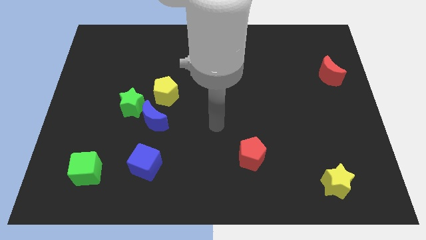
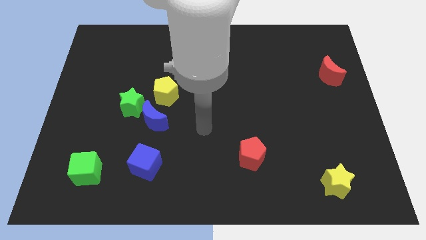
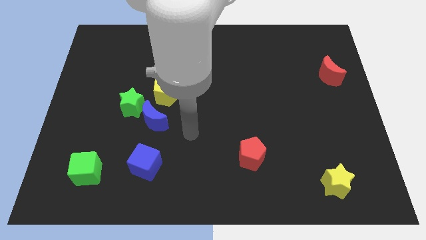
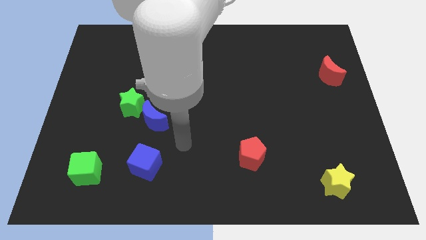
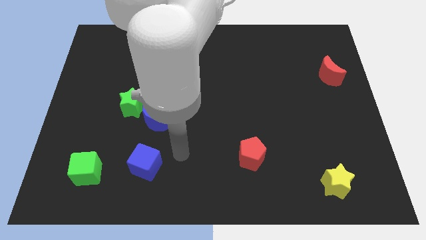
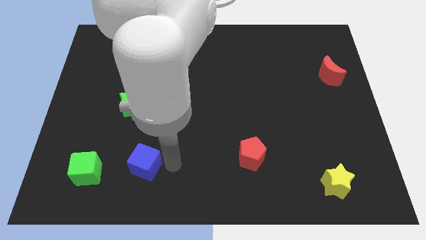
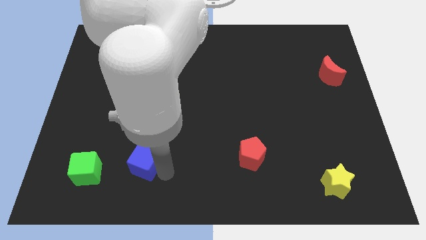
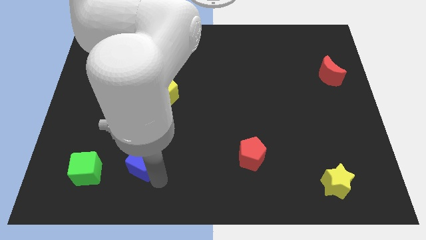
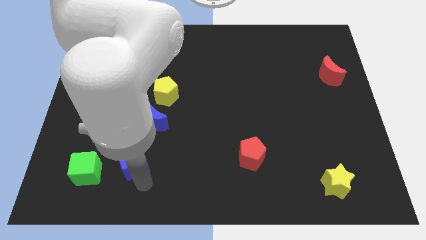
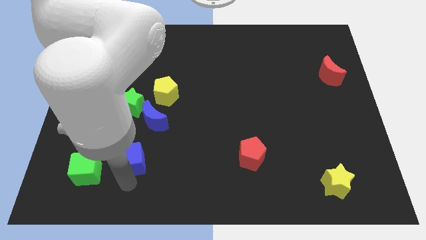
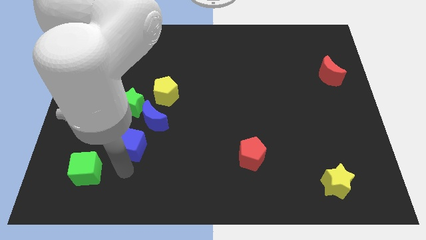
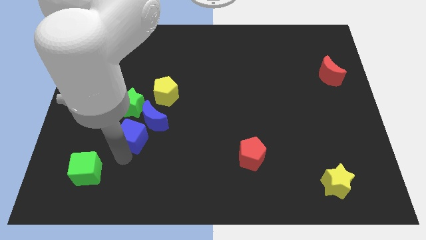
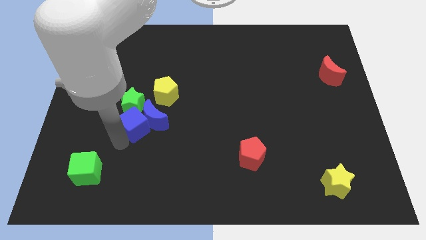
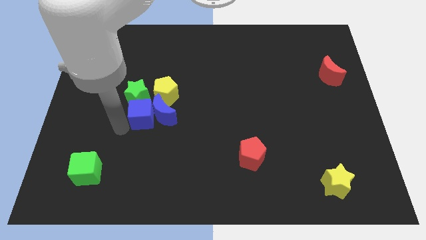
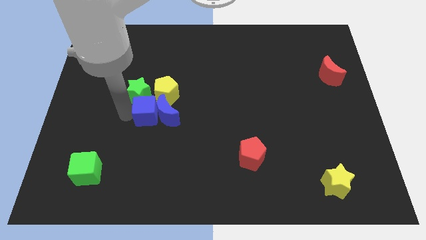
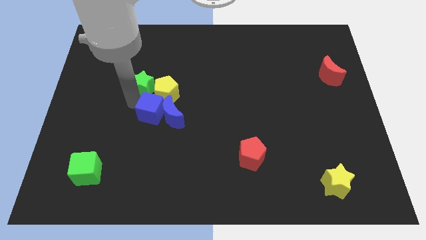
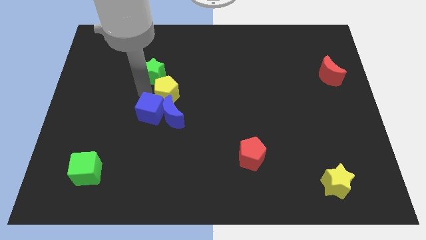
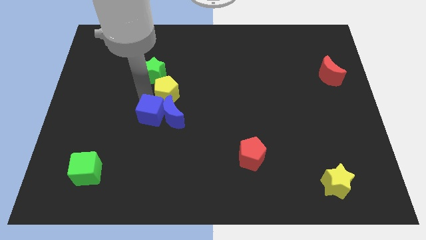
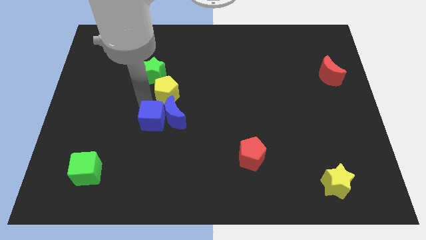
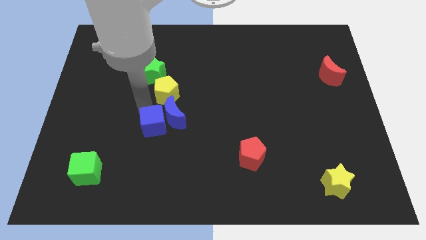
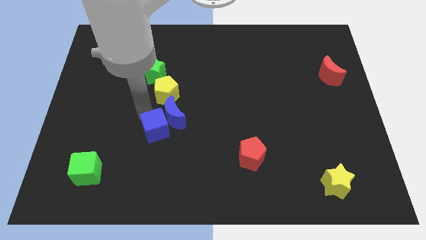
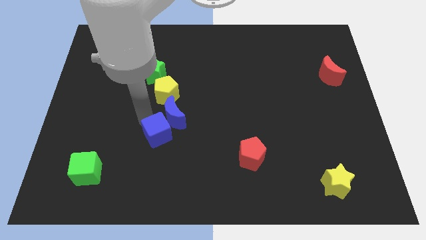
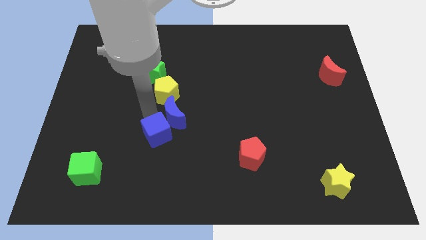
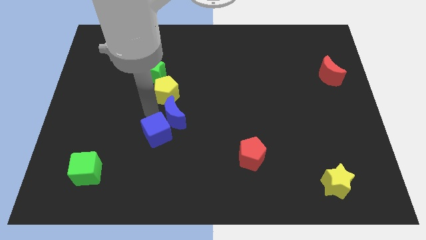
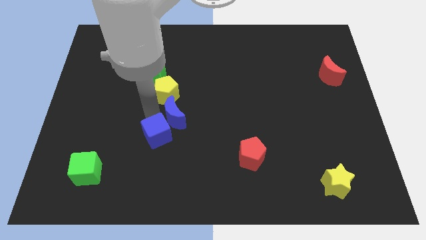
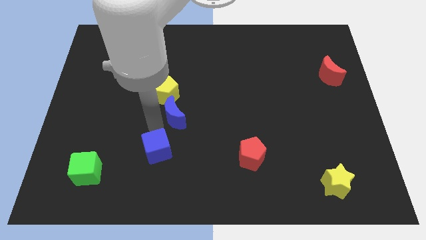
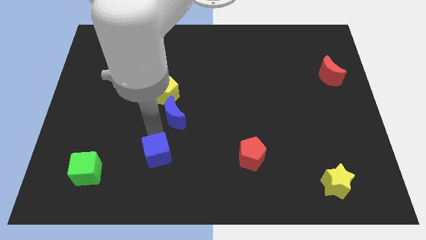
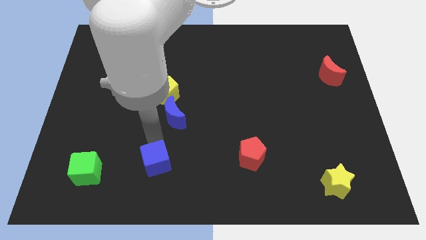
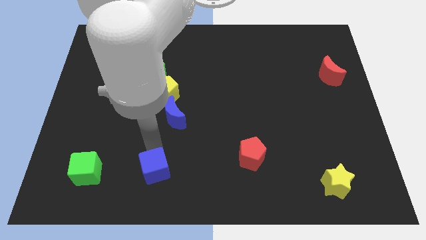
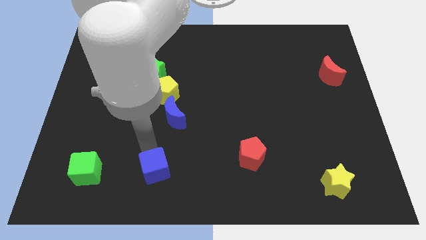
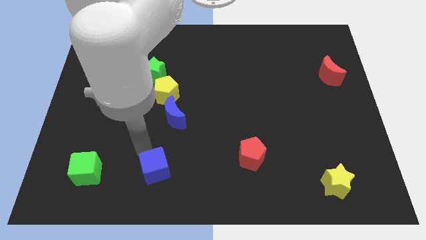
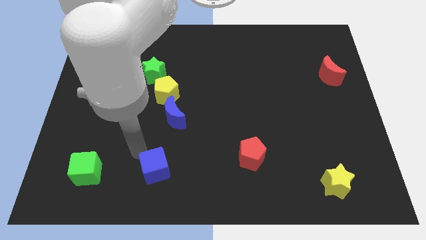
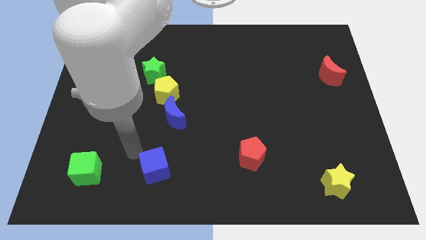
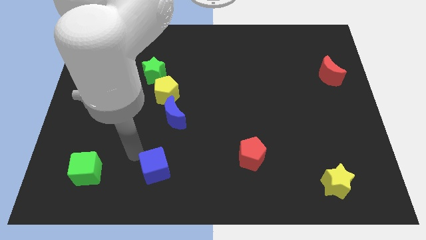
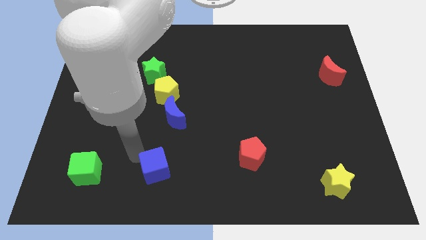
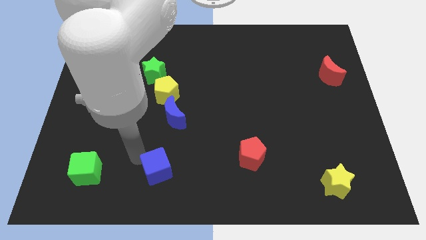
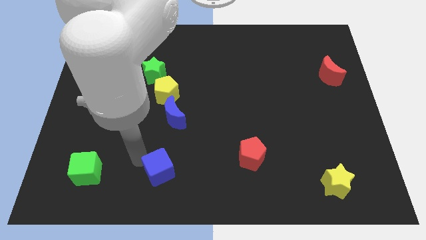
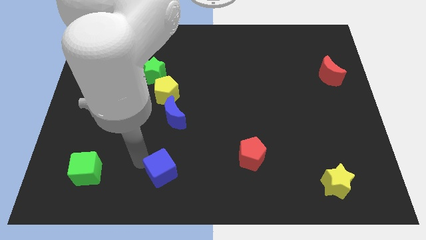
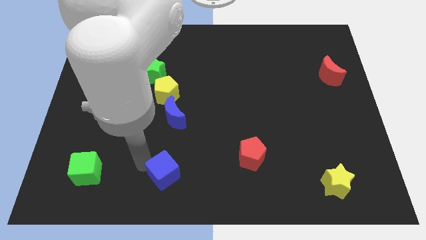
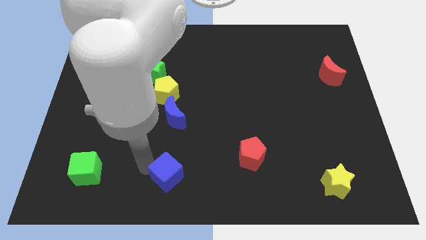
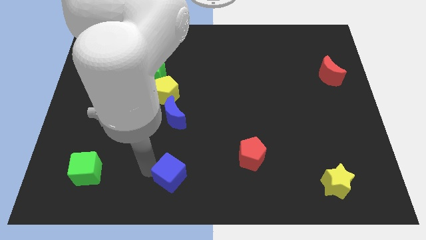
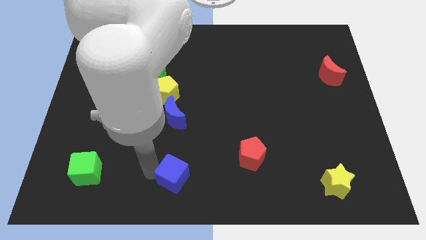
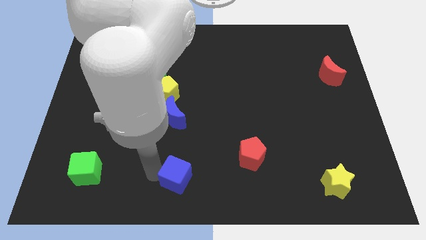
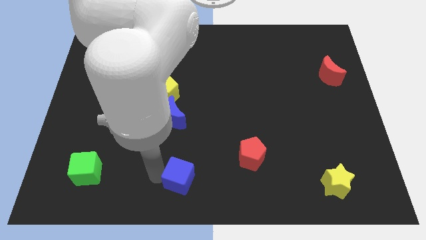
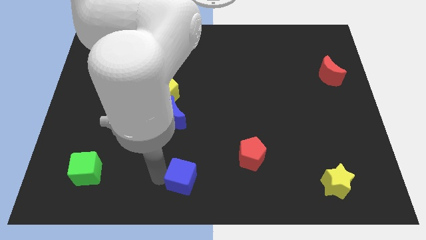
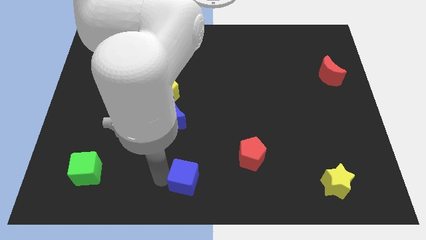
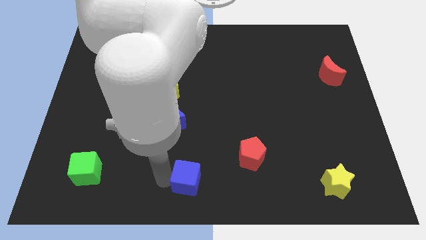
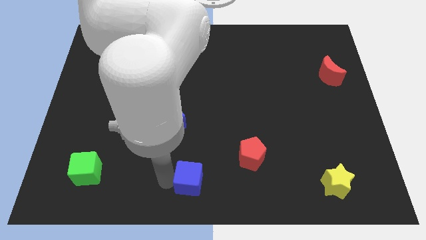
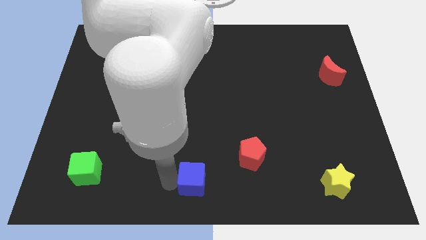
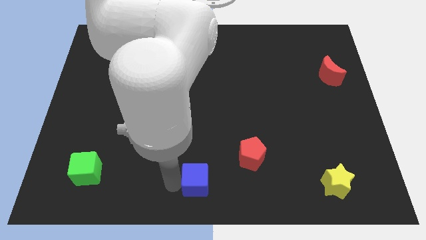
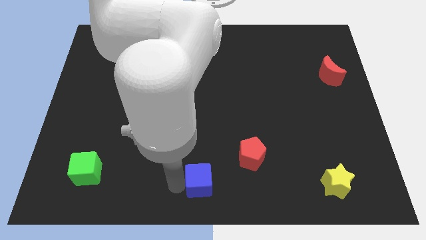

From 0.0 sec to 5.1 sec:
slide the blue cube to the bottom left side of the red pentagon

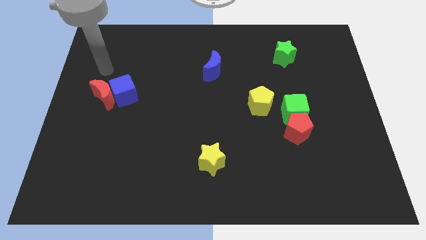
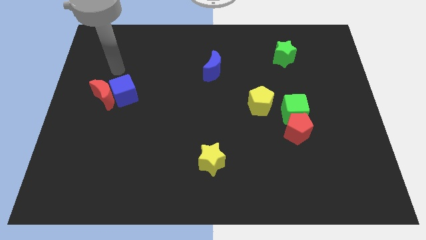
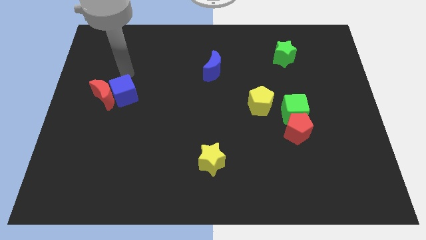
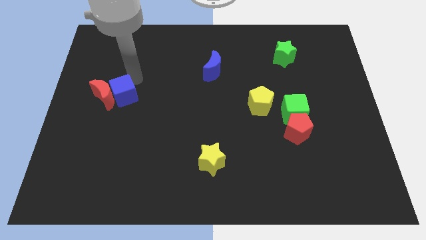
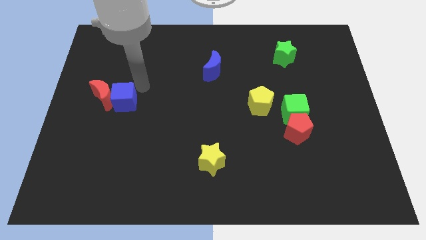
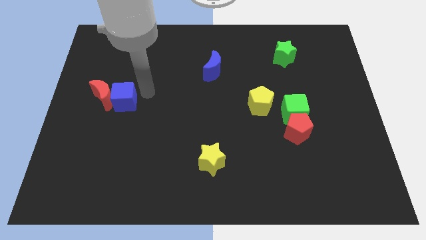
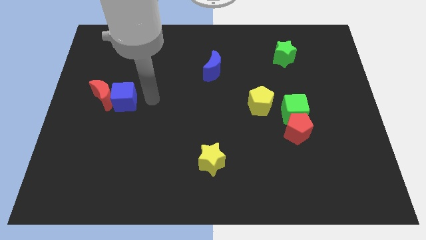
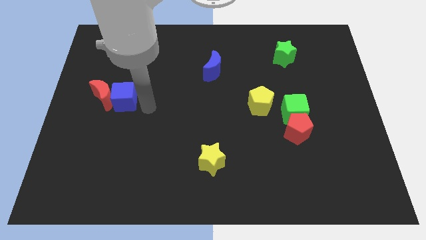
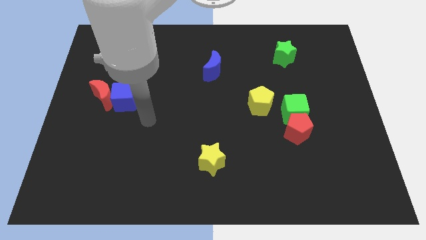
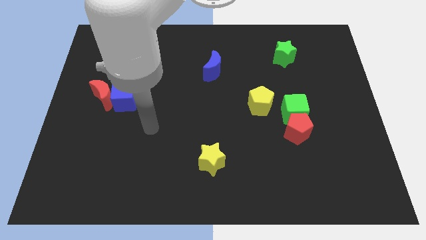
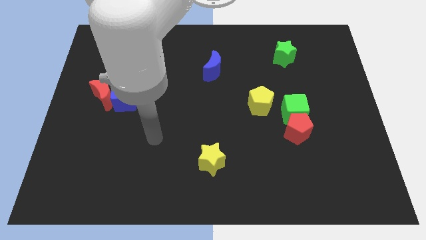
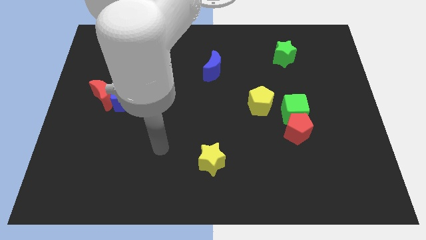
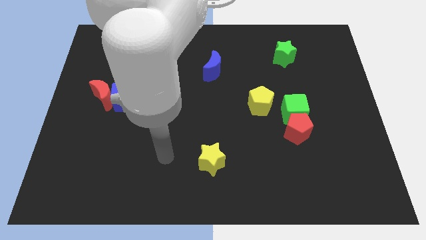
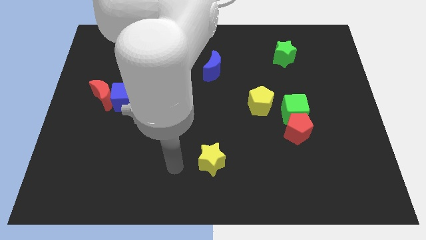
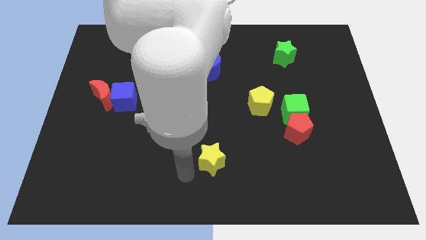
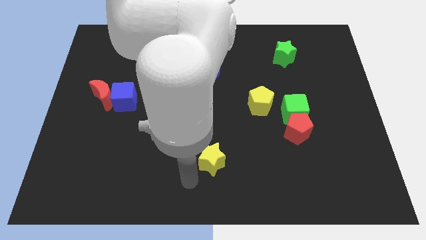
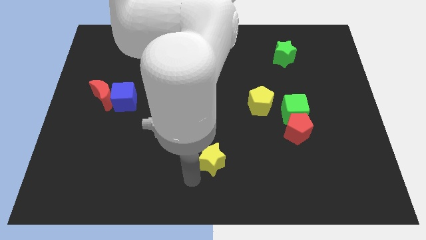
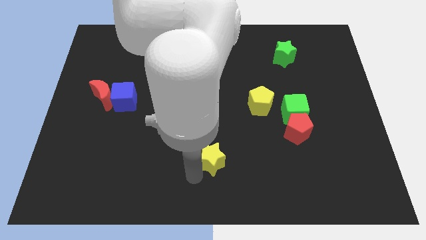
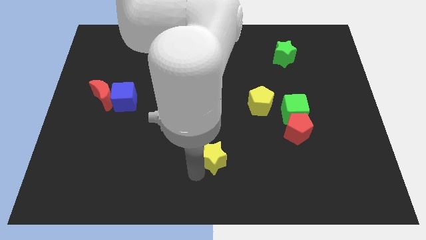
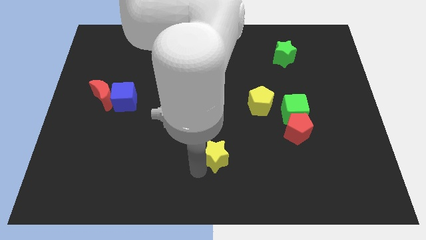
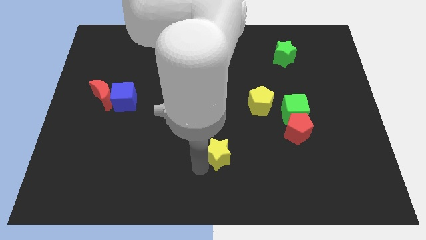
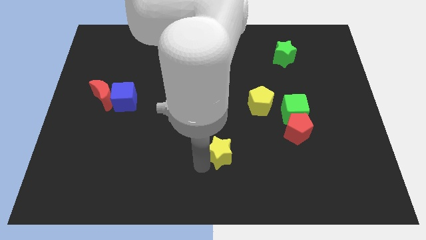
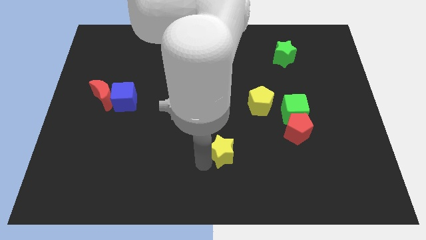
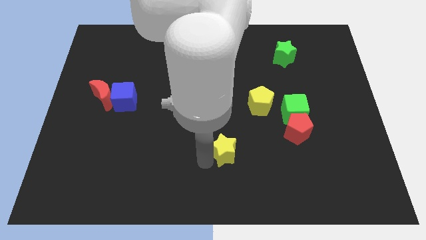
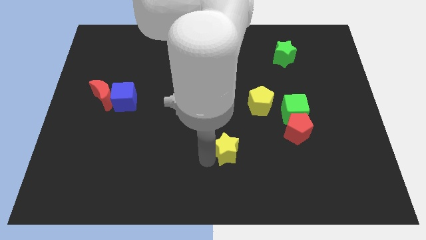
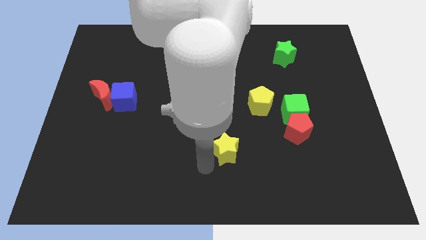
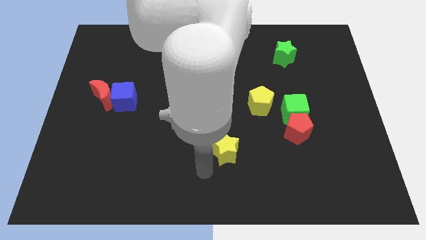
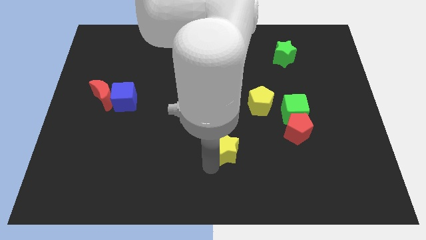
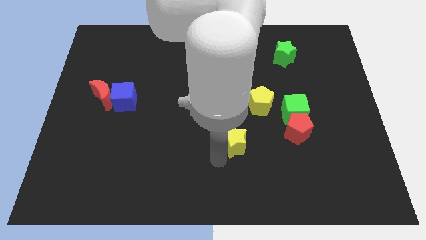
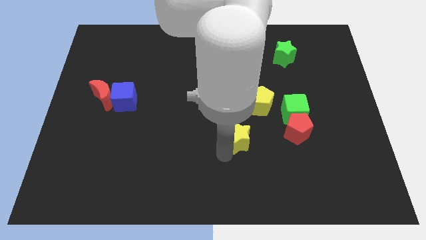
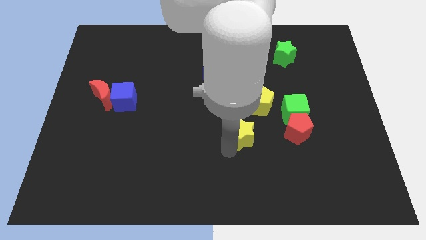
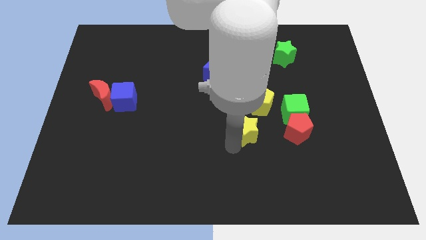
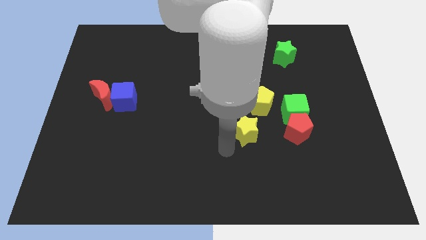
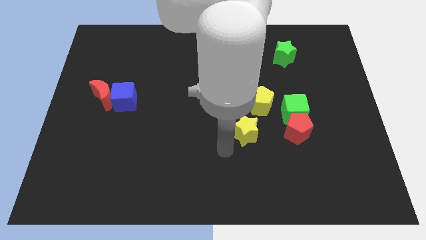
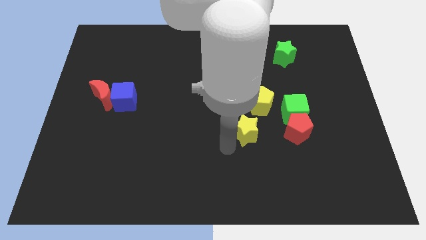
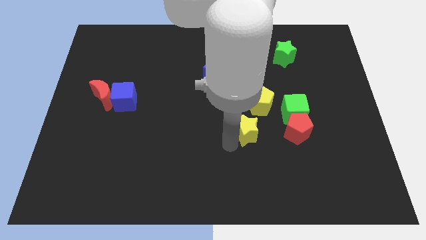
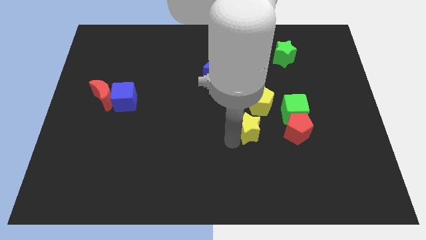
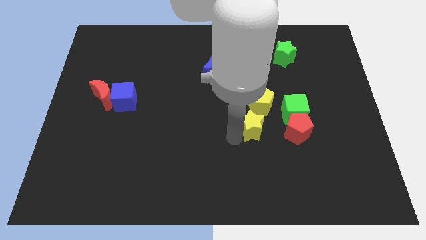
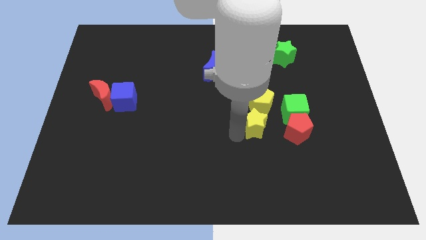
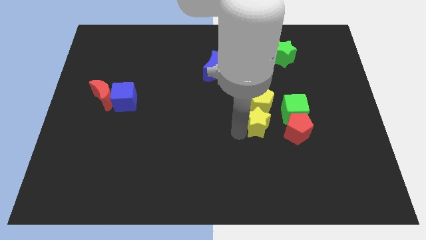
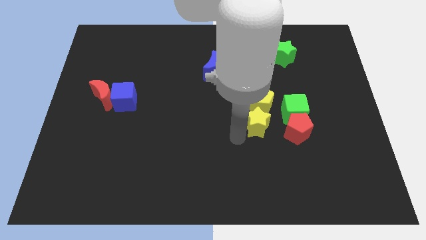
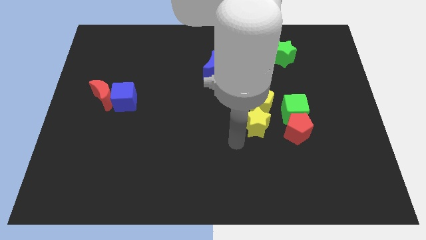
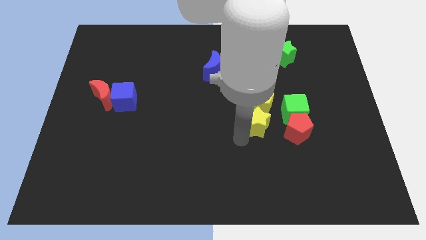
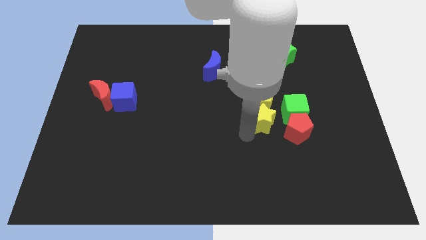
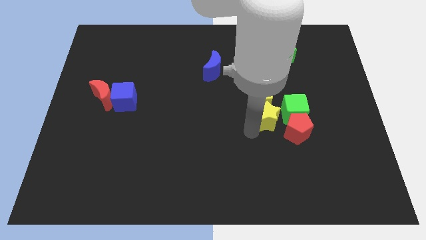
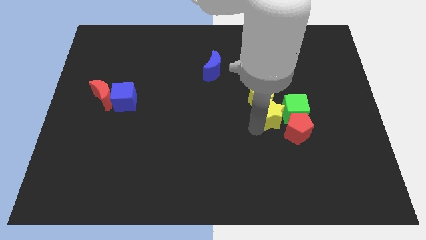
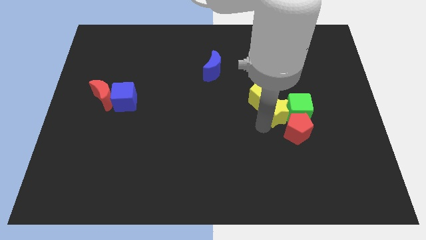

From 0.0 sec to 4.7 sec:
slide the yellow star to the top of the red pentagon
